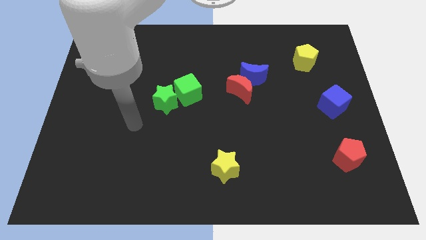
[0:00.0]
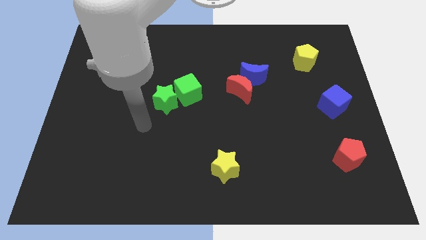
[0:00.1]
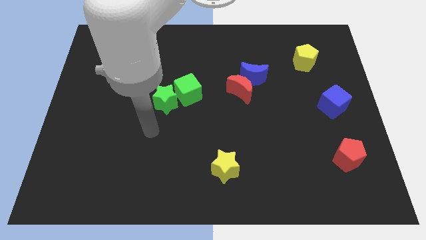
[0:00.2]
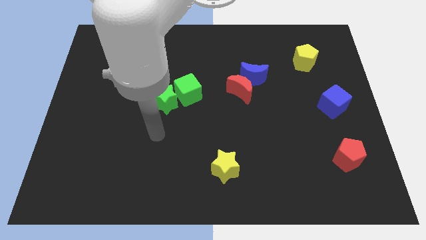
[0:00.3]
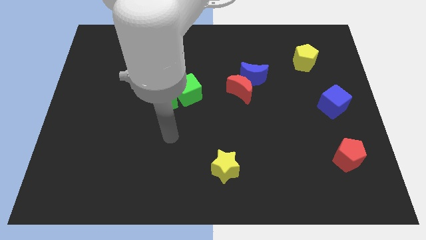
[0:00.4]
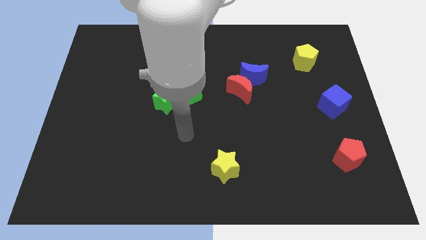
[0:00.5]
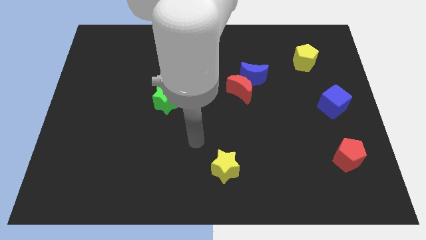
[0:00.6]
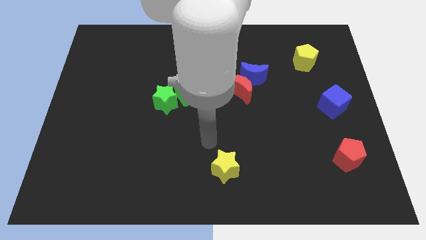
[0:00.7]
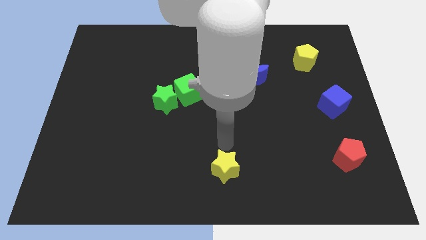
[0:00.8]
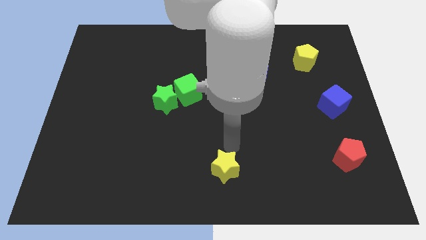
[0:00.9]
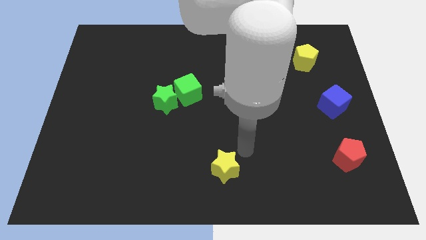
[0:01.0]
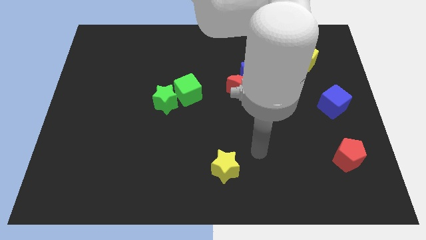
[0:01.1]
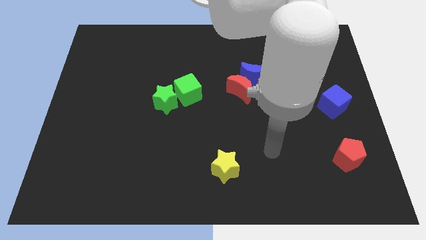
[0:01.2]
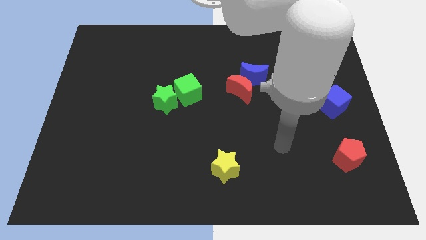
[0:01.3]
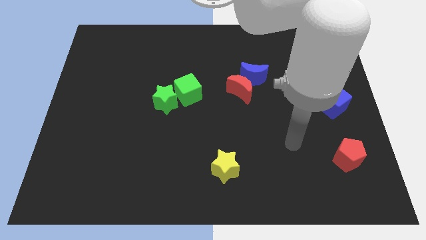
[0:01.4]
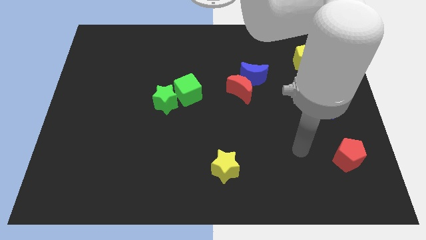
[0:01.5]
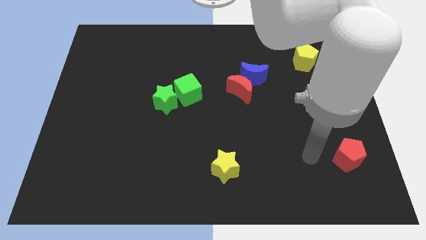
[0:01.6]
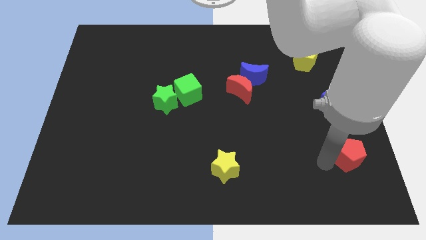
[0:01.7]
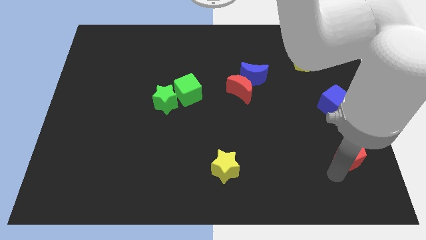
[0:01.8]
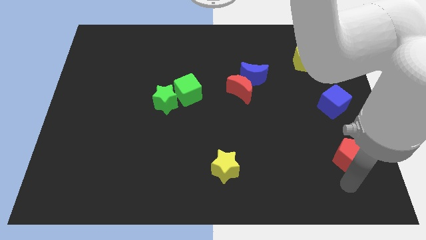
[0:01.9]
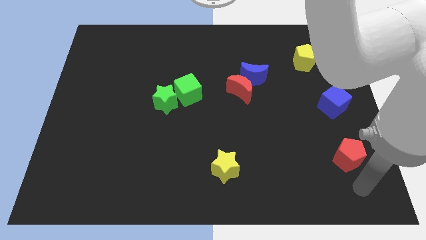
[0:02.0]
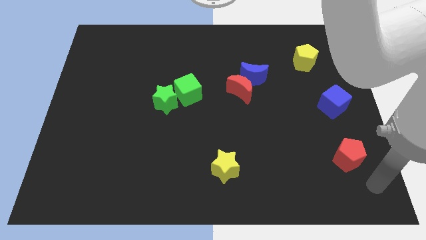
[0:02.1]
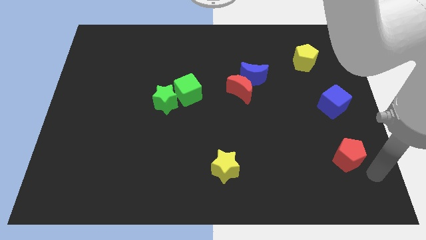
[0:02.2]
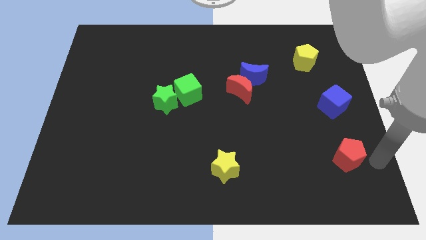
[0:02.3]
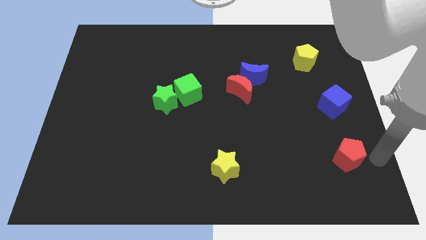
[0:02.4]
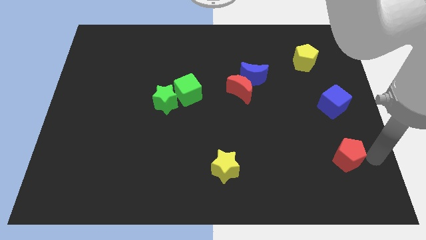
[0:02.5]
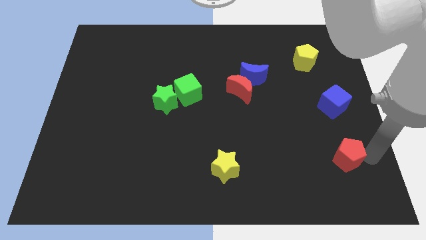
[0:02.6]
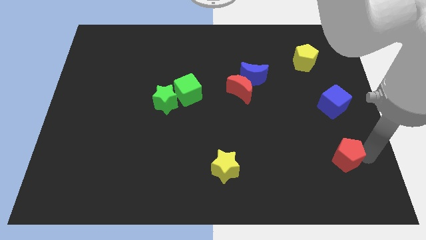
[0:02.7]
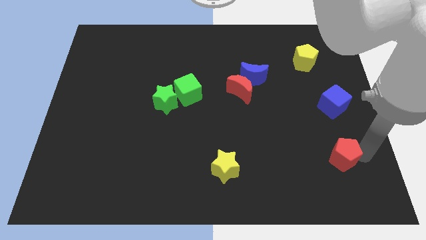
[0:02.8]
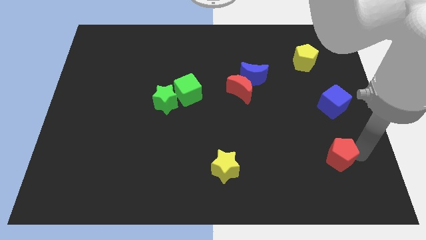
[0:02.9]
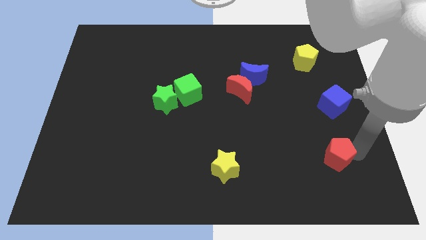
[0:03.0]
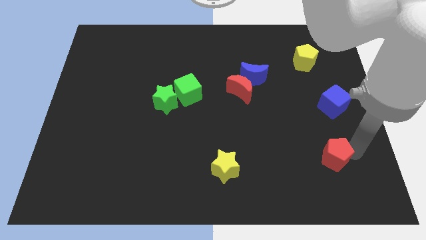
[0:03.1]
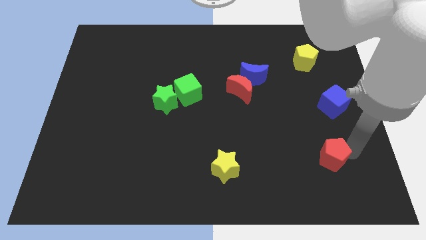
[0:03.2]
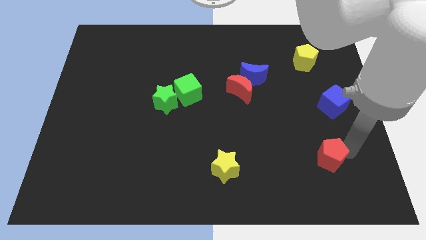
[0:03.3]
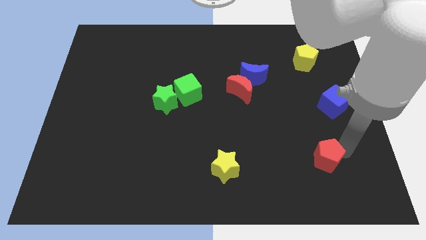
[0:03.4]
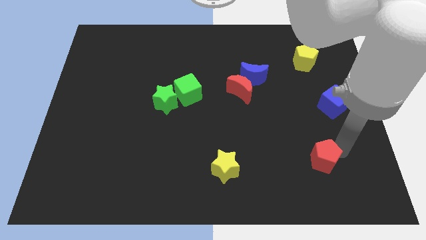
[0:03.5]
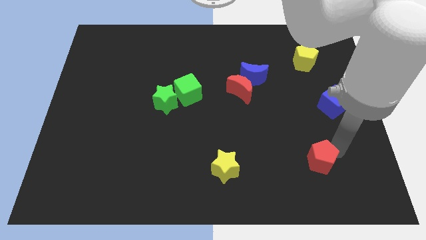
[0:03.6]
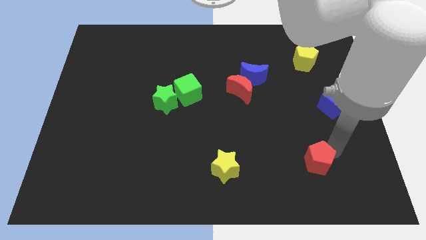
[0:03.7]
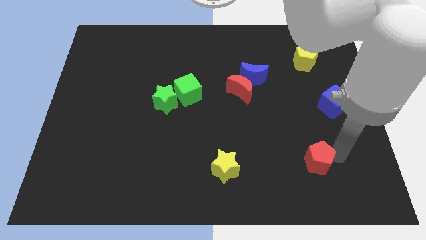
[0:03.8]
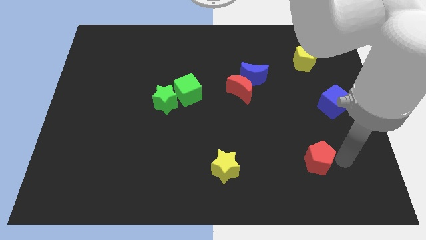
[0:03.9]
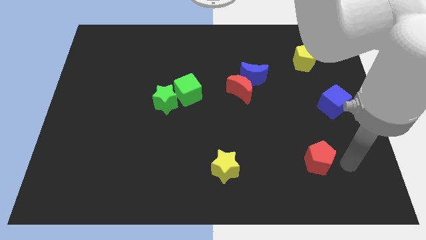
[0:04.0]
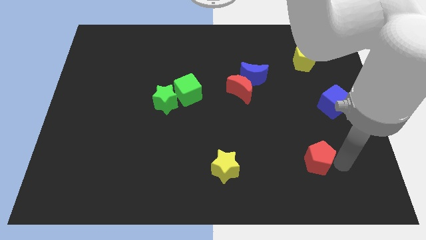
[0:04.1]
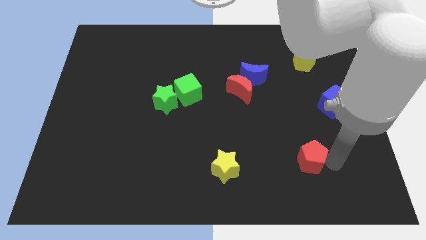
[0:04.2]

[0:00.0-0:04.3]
slide the red pentagon to the left slightly

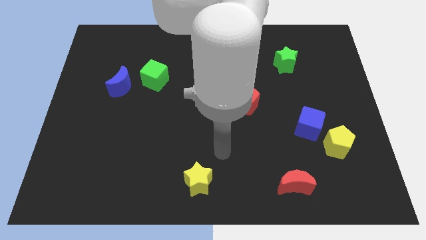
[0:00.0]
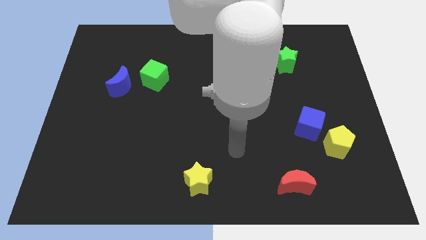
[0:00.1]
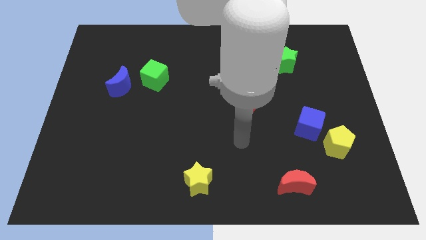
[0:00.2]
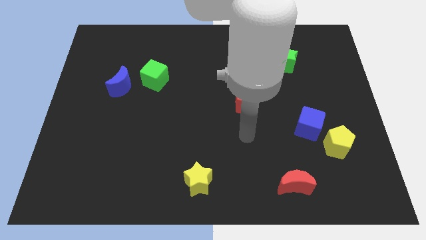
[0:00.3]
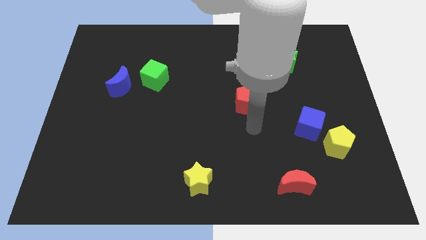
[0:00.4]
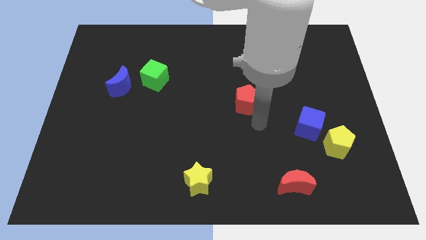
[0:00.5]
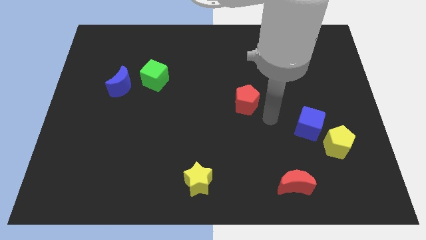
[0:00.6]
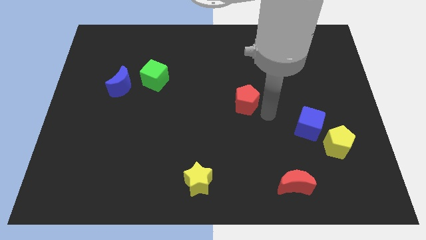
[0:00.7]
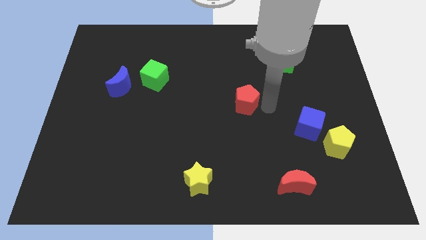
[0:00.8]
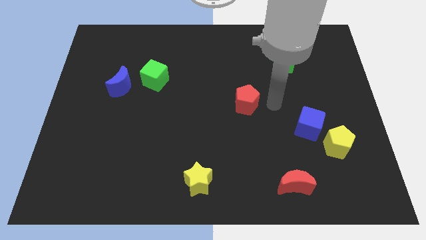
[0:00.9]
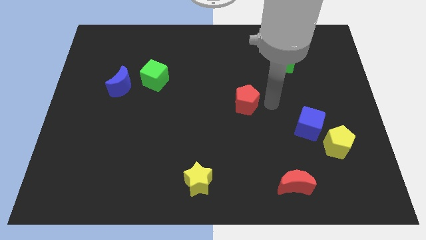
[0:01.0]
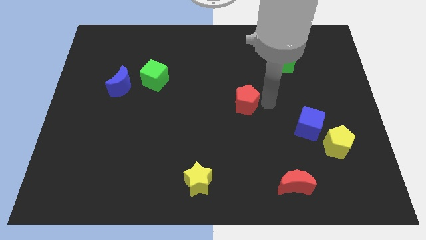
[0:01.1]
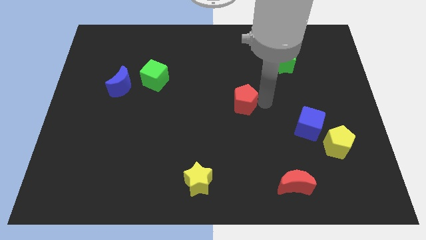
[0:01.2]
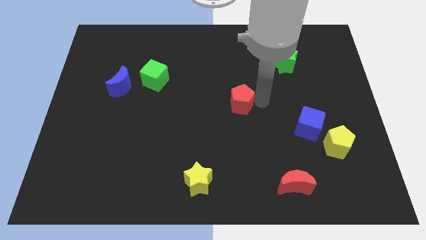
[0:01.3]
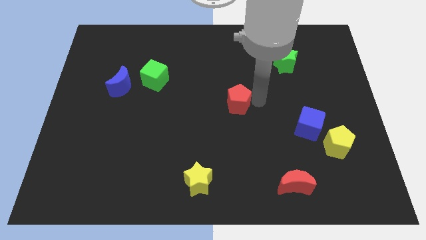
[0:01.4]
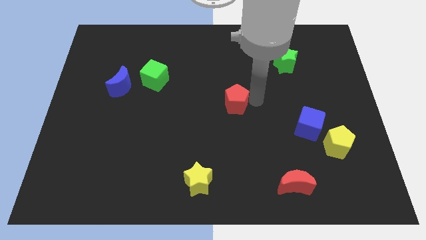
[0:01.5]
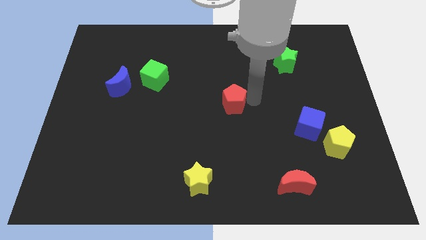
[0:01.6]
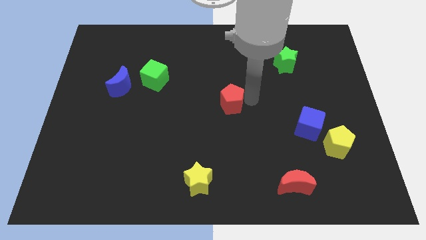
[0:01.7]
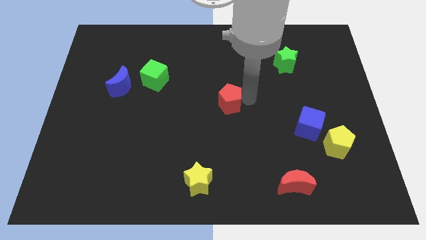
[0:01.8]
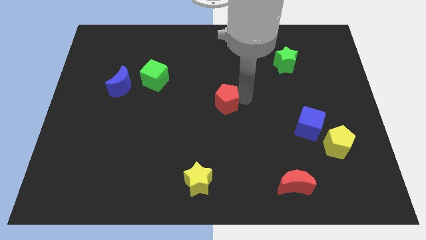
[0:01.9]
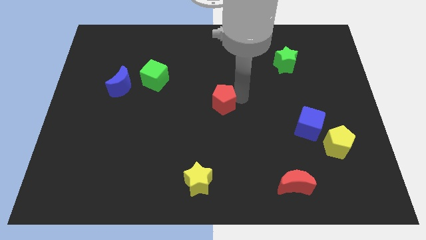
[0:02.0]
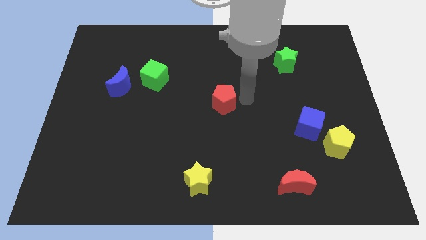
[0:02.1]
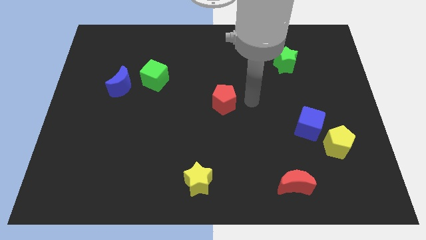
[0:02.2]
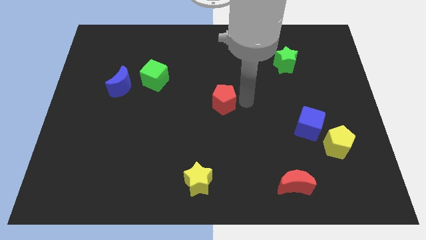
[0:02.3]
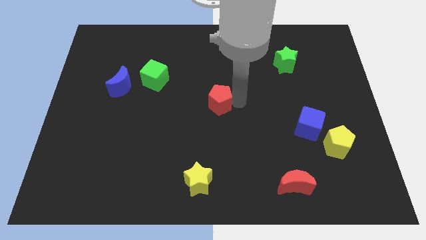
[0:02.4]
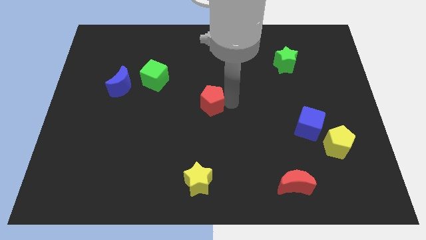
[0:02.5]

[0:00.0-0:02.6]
slightly slide the red pentagon to the left

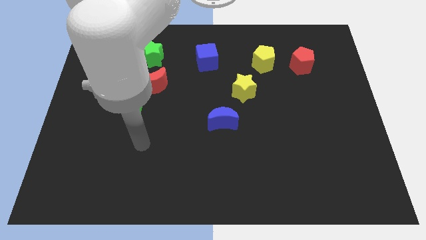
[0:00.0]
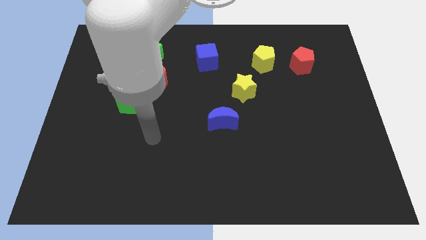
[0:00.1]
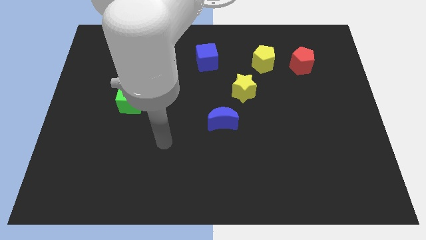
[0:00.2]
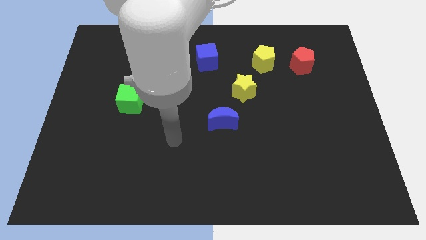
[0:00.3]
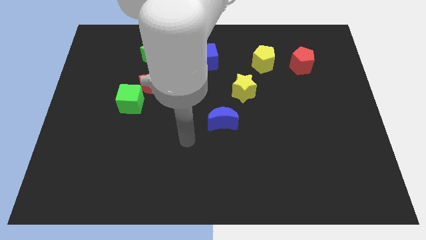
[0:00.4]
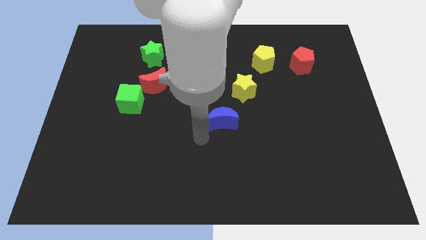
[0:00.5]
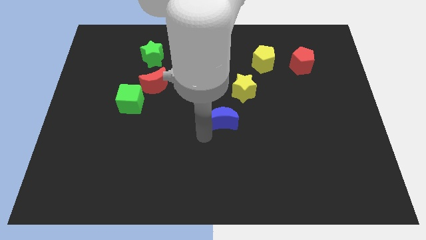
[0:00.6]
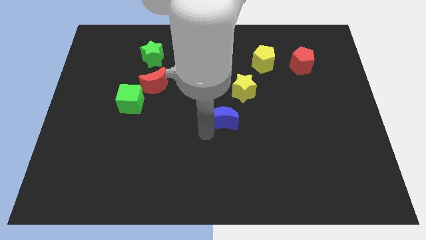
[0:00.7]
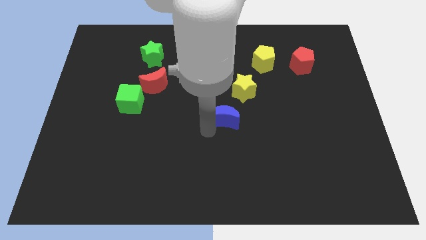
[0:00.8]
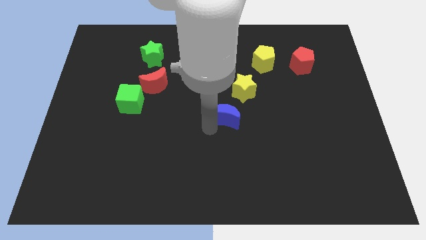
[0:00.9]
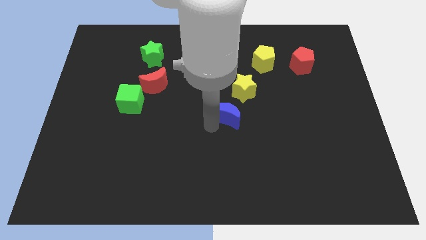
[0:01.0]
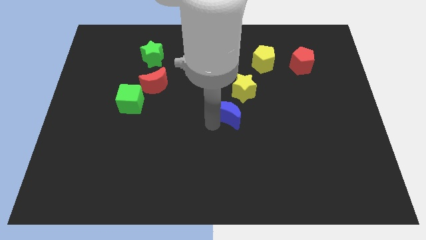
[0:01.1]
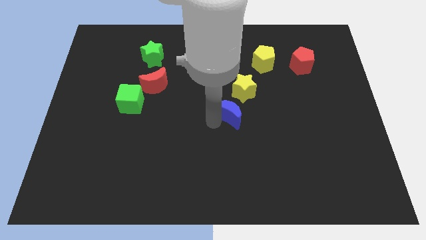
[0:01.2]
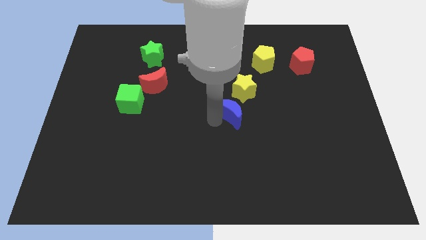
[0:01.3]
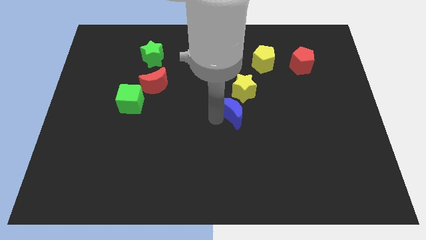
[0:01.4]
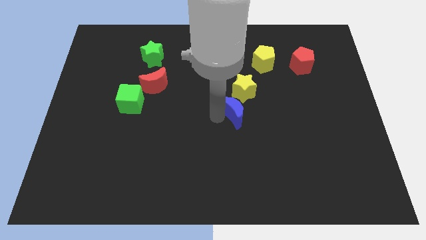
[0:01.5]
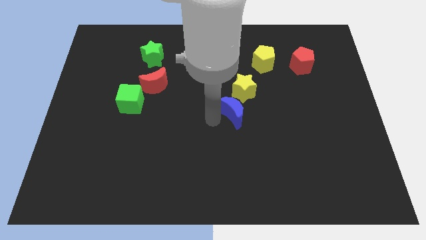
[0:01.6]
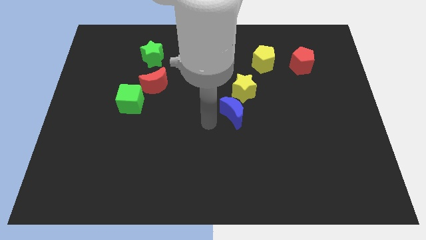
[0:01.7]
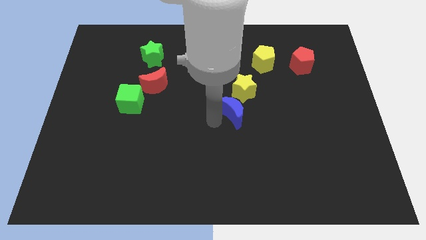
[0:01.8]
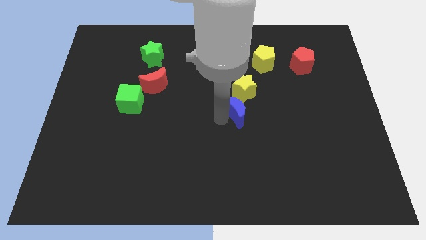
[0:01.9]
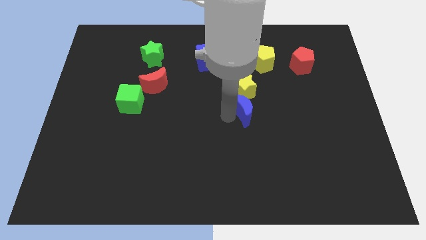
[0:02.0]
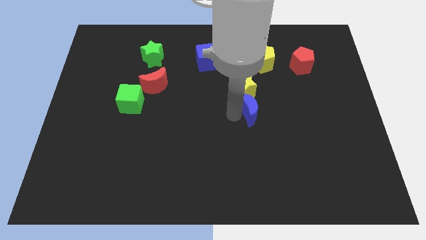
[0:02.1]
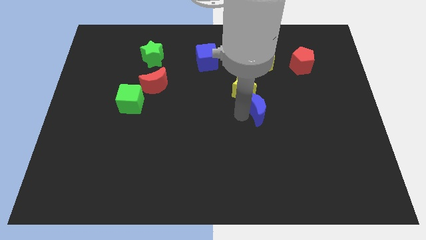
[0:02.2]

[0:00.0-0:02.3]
slide the blue moon slightly up and to the right
